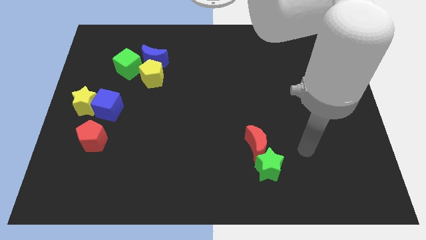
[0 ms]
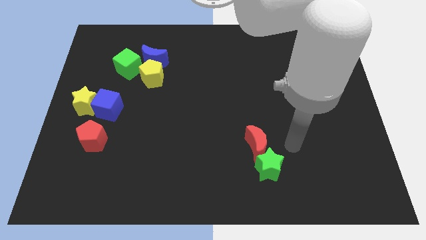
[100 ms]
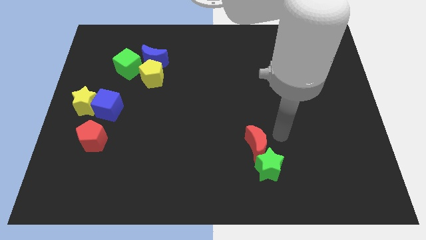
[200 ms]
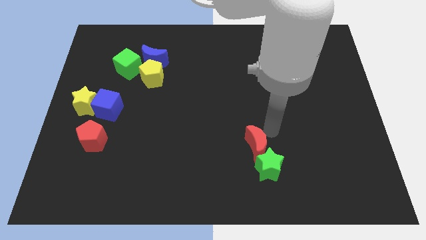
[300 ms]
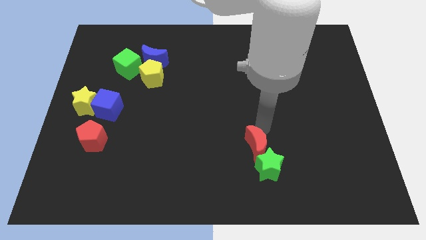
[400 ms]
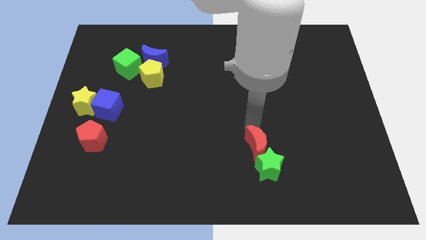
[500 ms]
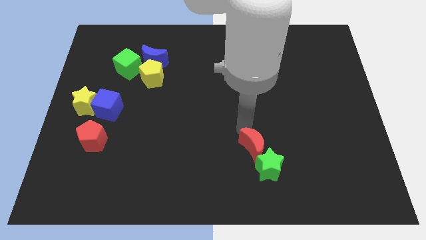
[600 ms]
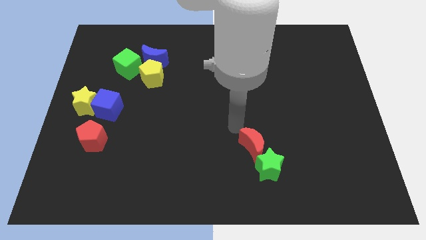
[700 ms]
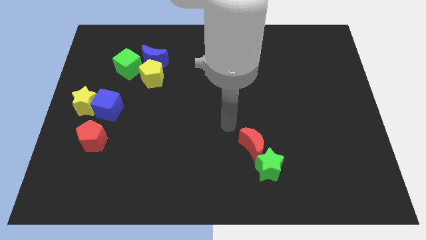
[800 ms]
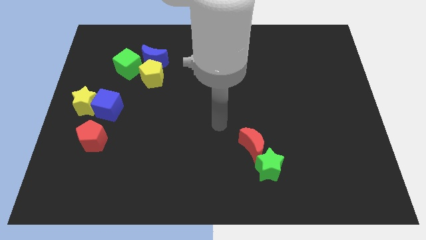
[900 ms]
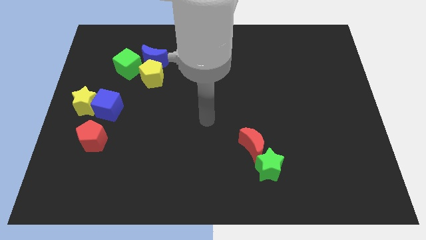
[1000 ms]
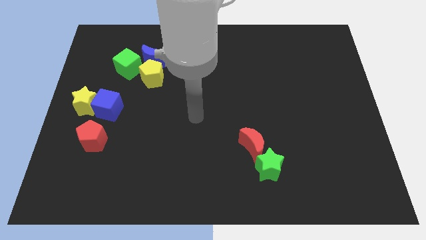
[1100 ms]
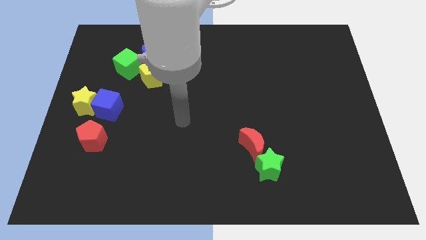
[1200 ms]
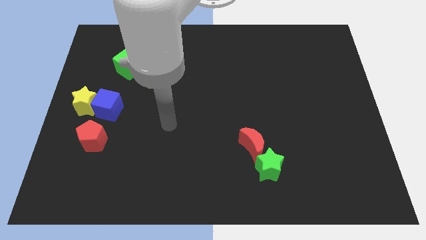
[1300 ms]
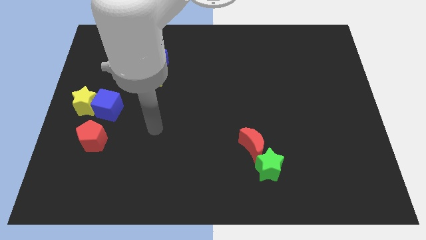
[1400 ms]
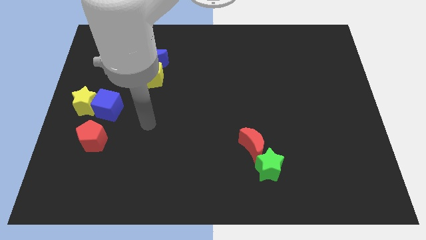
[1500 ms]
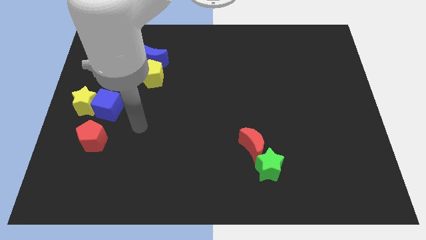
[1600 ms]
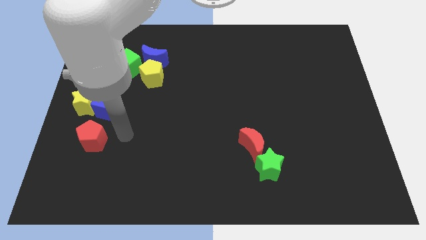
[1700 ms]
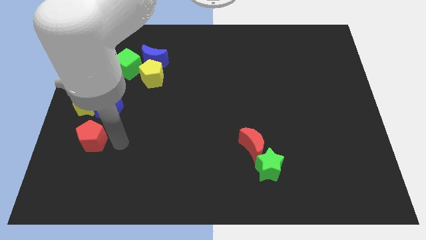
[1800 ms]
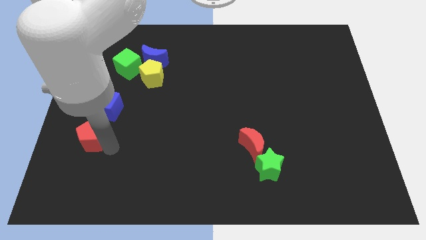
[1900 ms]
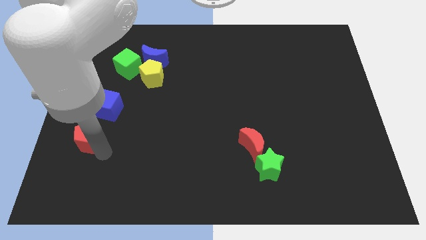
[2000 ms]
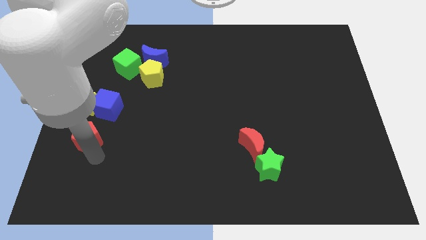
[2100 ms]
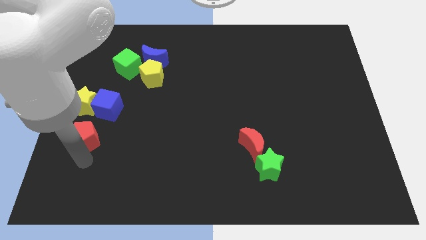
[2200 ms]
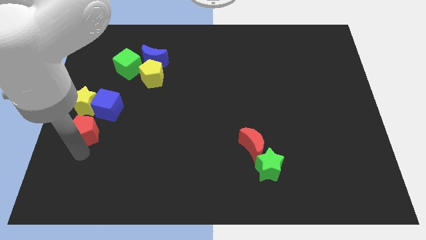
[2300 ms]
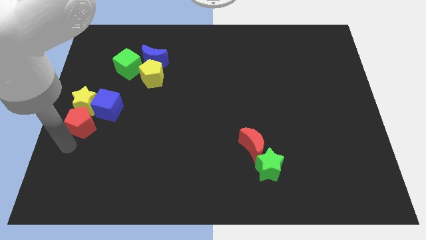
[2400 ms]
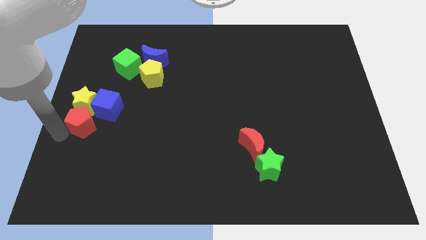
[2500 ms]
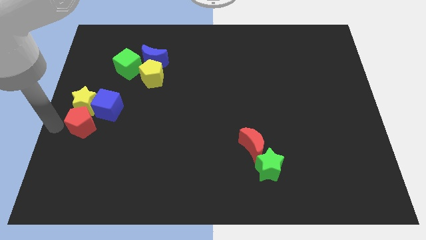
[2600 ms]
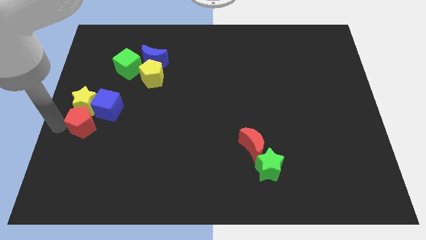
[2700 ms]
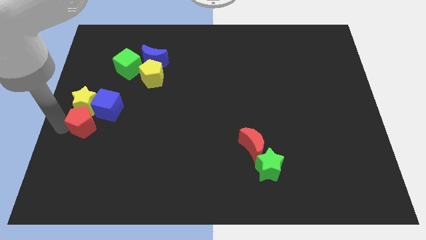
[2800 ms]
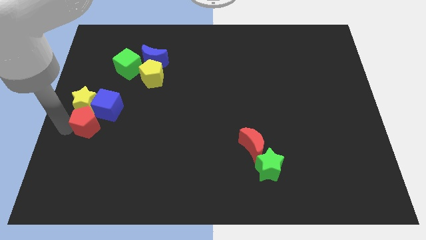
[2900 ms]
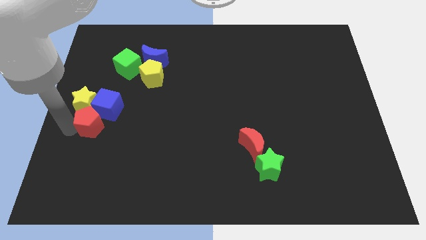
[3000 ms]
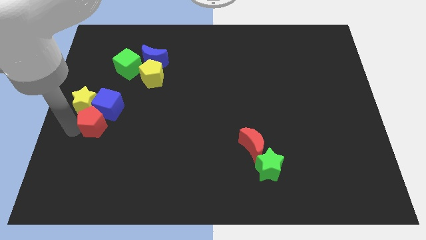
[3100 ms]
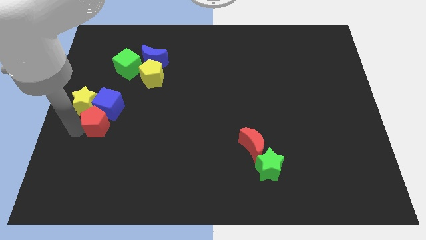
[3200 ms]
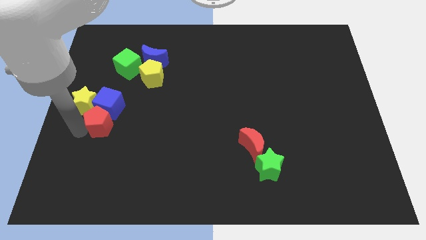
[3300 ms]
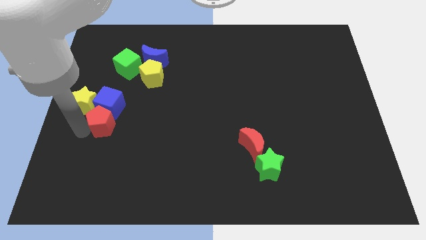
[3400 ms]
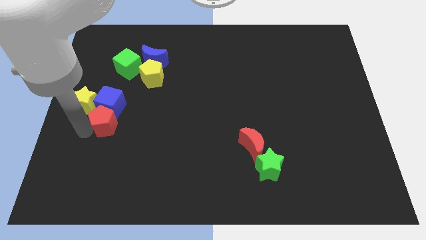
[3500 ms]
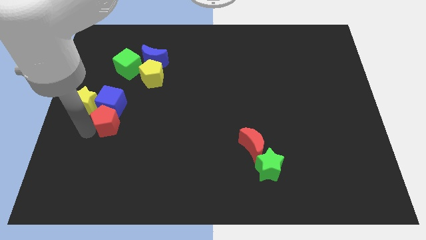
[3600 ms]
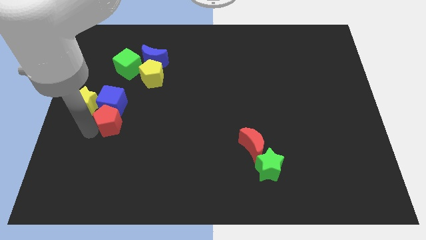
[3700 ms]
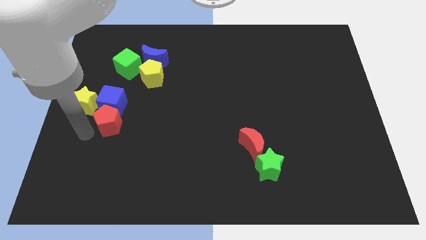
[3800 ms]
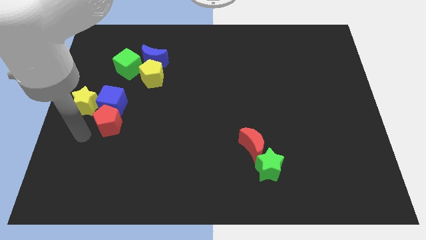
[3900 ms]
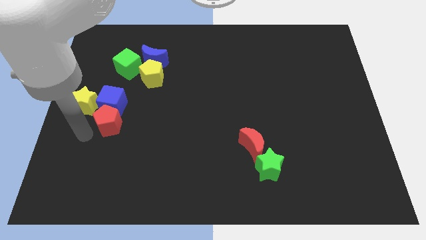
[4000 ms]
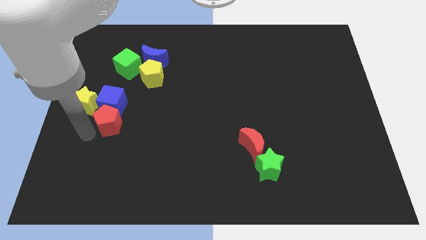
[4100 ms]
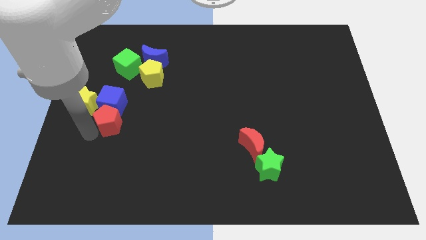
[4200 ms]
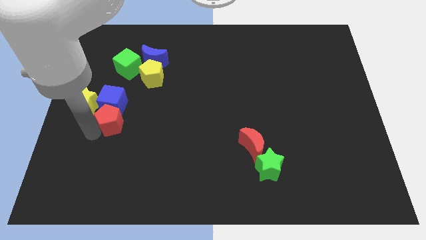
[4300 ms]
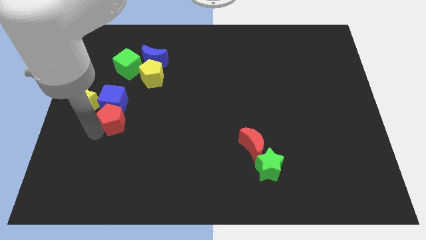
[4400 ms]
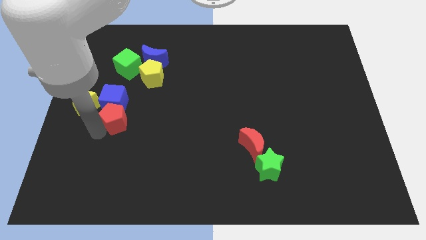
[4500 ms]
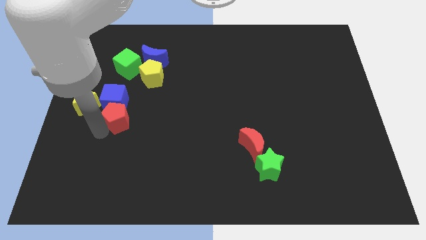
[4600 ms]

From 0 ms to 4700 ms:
slide the red pentagon upwards and then to the right somewhat

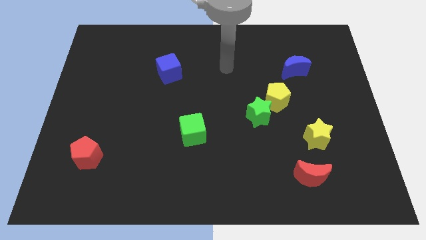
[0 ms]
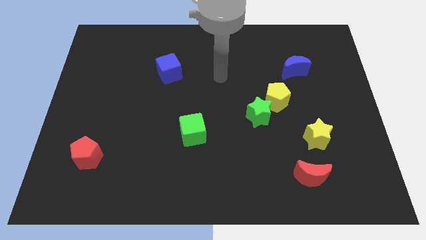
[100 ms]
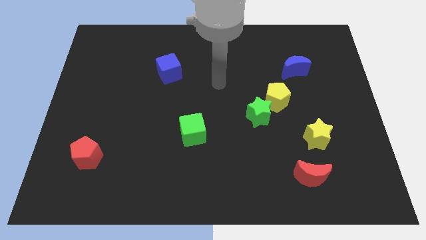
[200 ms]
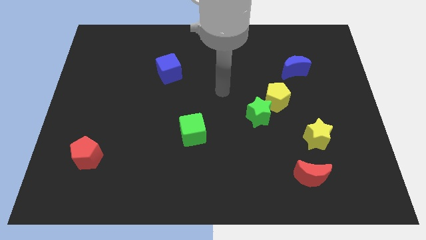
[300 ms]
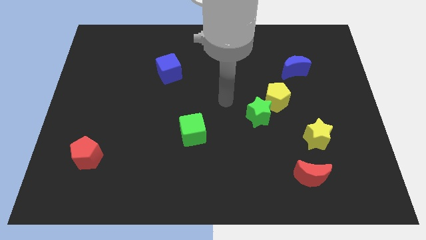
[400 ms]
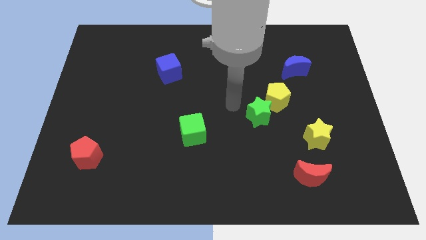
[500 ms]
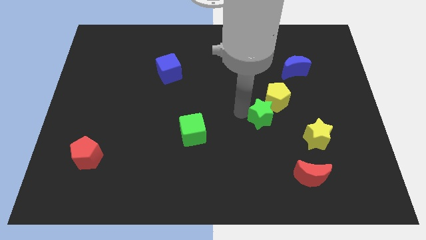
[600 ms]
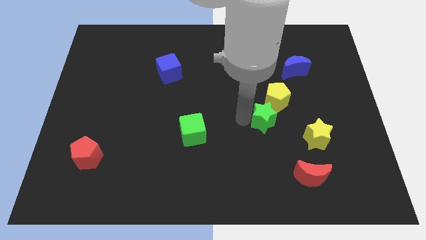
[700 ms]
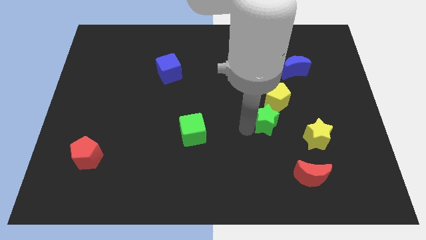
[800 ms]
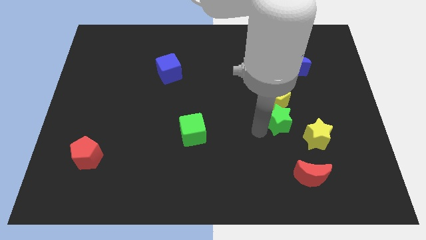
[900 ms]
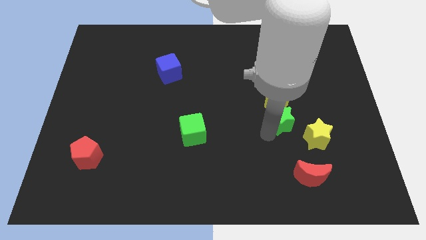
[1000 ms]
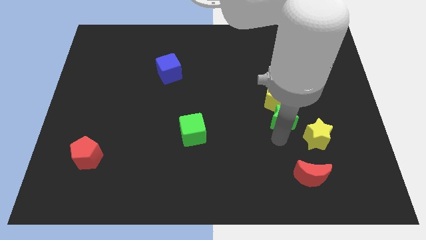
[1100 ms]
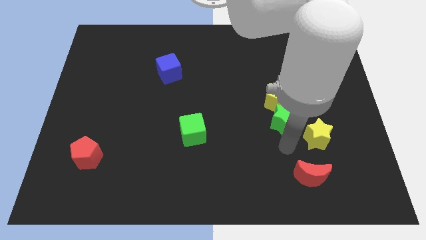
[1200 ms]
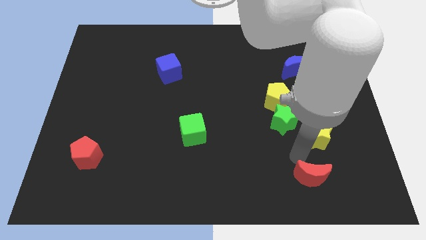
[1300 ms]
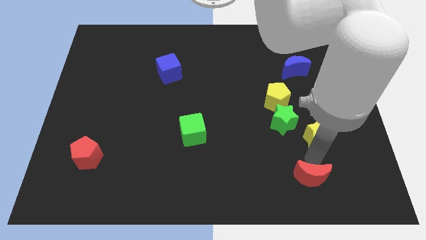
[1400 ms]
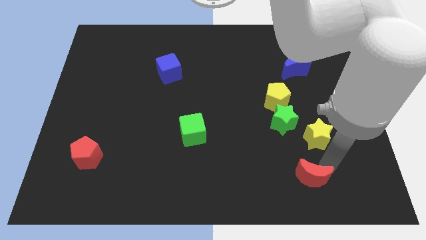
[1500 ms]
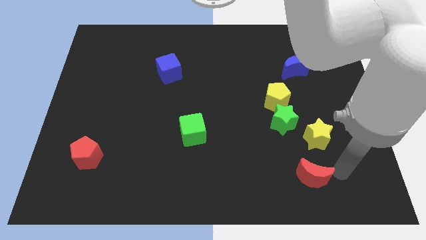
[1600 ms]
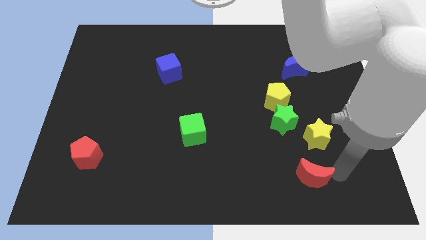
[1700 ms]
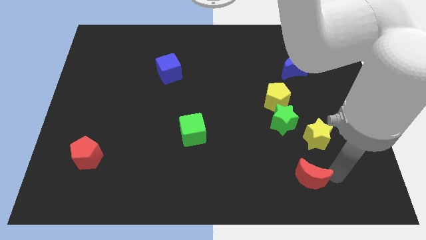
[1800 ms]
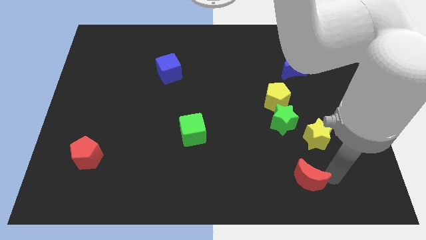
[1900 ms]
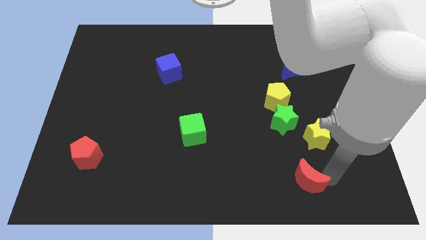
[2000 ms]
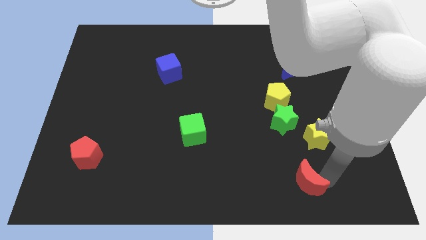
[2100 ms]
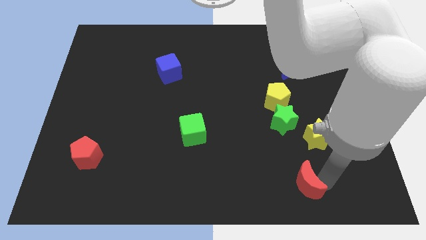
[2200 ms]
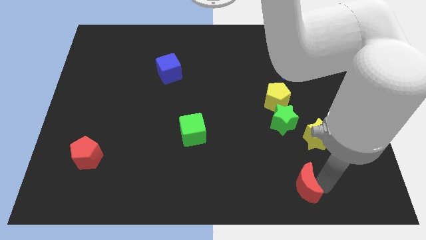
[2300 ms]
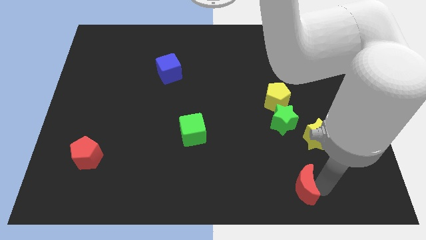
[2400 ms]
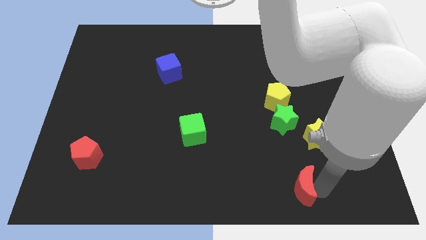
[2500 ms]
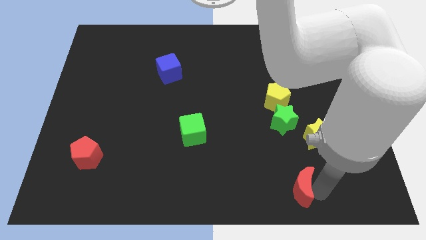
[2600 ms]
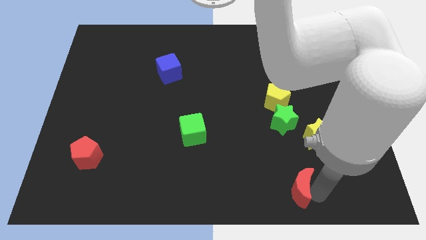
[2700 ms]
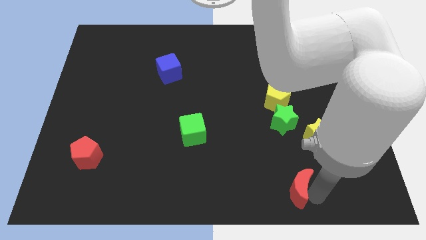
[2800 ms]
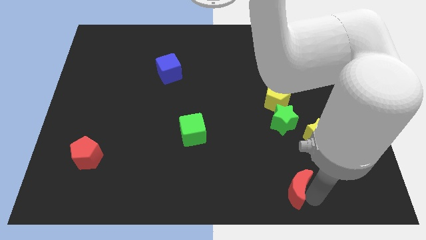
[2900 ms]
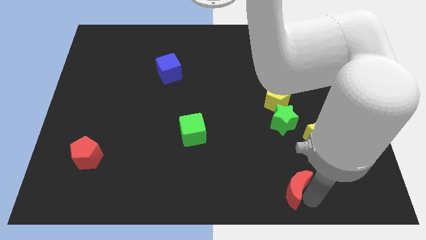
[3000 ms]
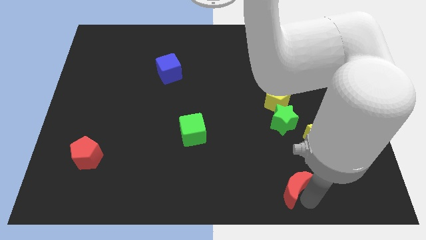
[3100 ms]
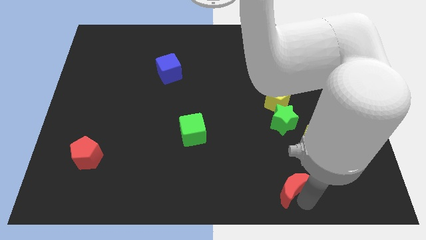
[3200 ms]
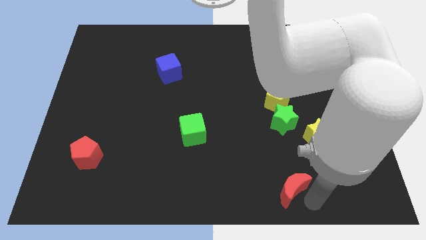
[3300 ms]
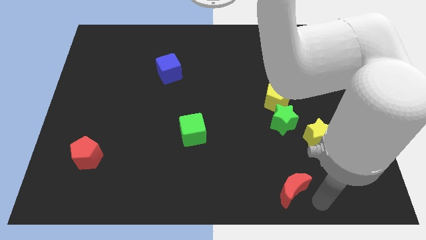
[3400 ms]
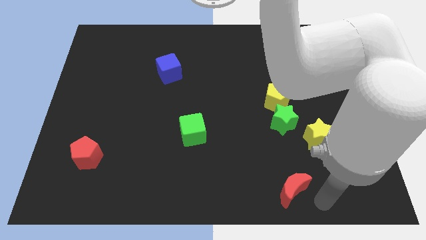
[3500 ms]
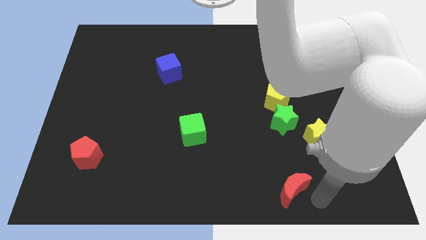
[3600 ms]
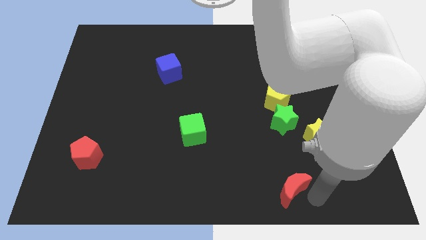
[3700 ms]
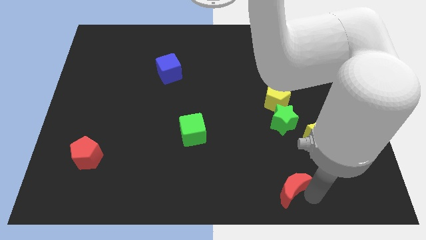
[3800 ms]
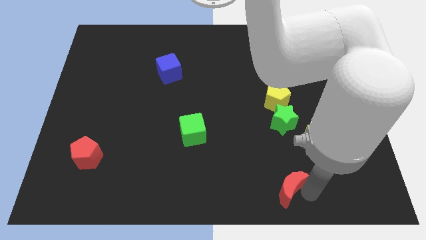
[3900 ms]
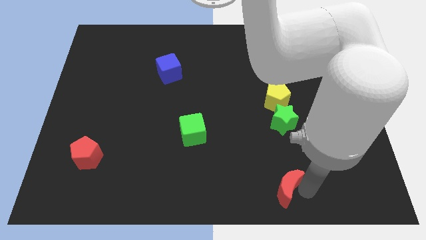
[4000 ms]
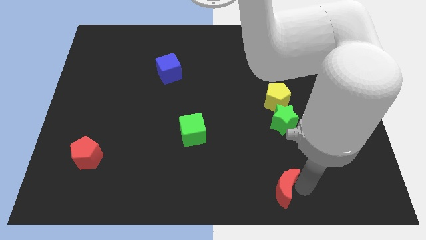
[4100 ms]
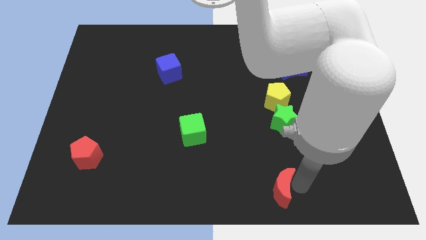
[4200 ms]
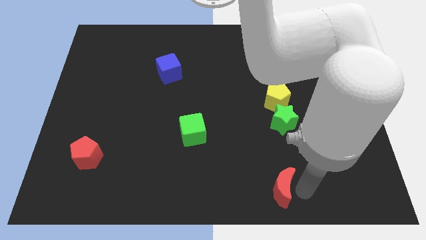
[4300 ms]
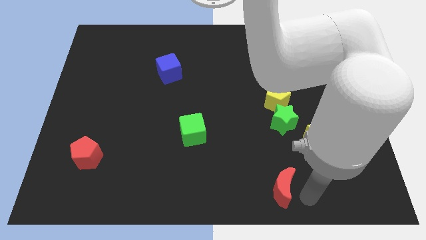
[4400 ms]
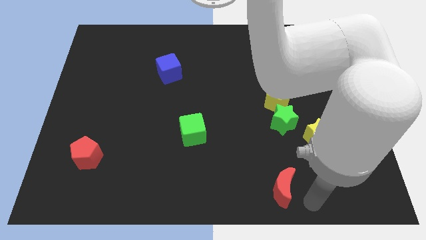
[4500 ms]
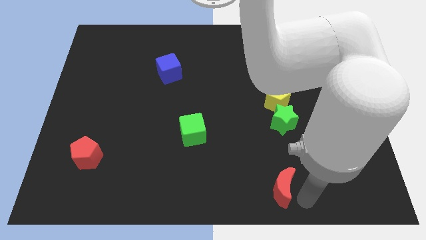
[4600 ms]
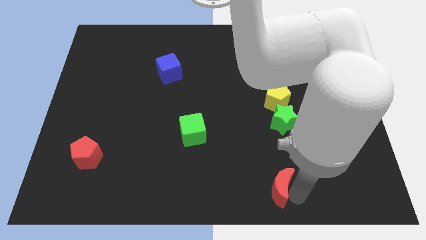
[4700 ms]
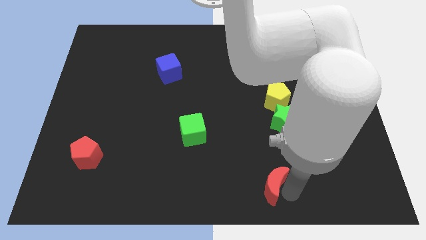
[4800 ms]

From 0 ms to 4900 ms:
push the red moon left a bit
